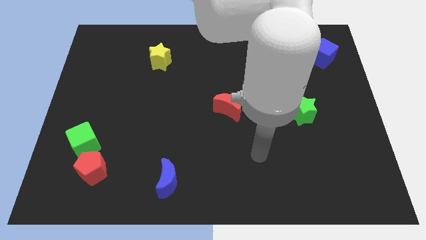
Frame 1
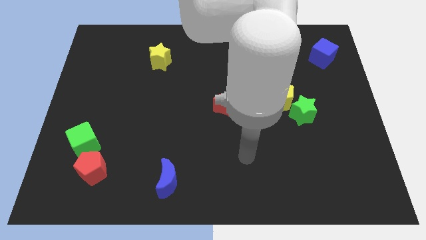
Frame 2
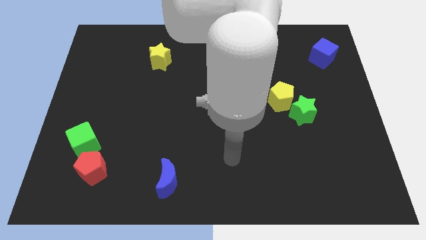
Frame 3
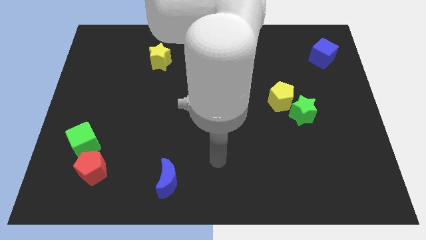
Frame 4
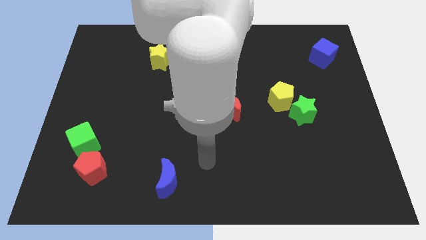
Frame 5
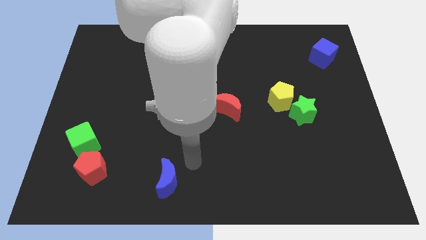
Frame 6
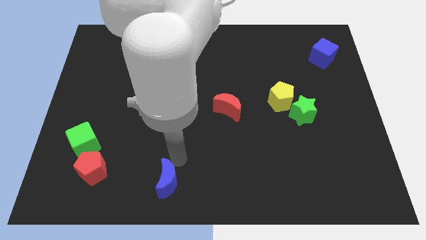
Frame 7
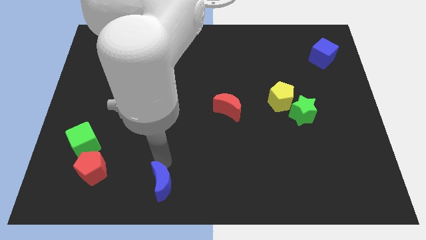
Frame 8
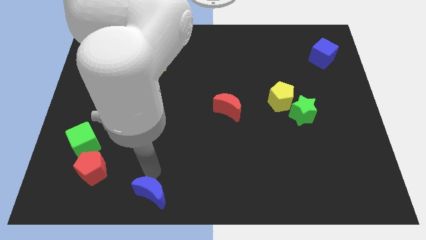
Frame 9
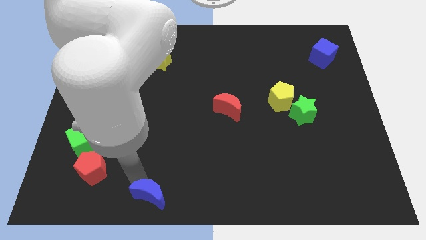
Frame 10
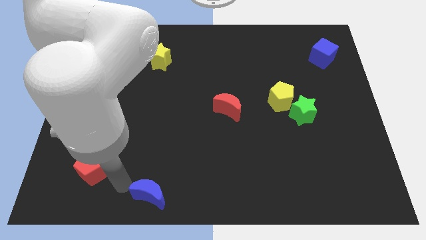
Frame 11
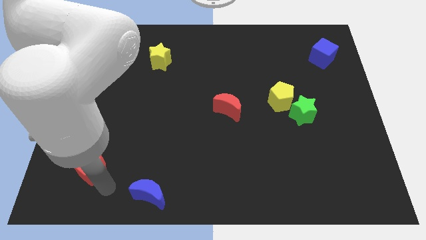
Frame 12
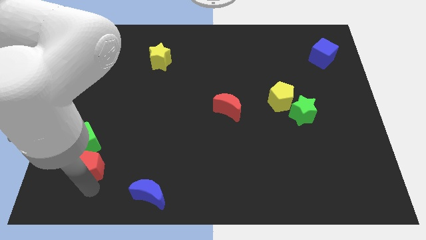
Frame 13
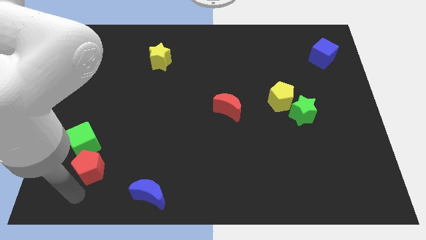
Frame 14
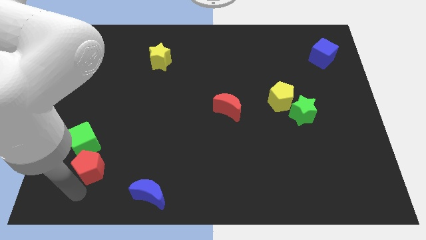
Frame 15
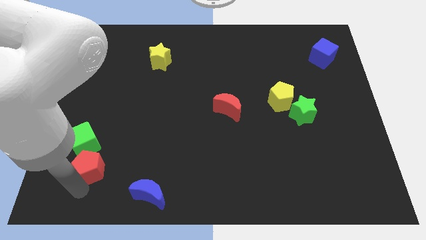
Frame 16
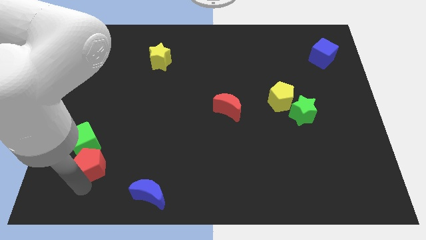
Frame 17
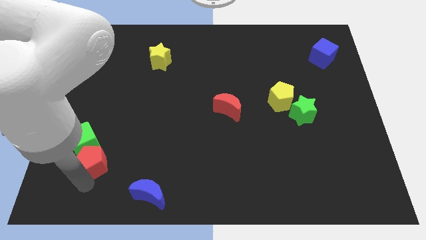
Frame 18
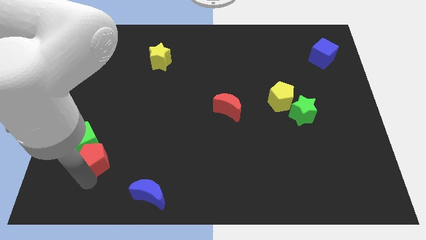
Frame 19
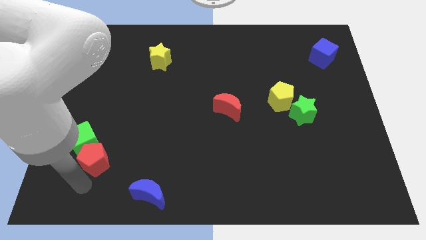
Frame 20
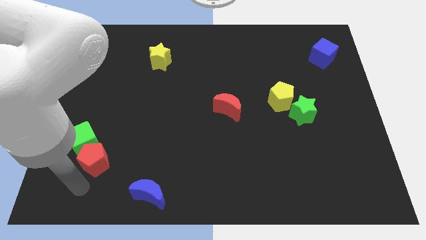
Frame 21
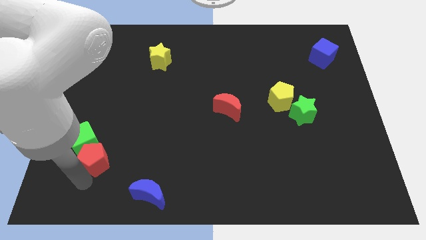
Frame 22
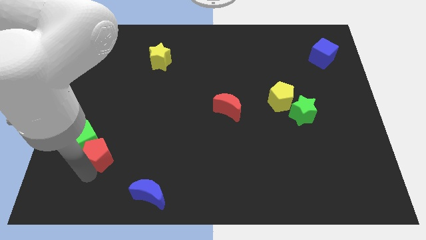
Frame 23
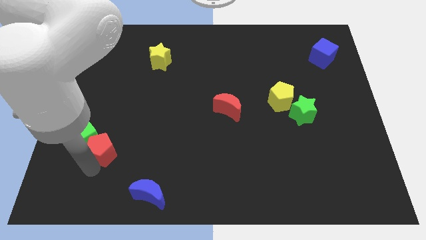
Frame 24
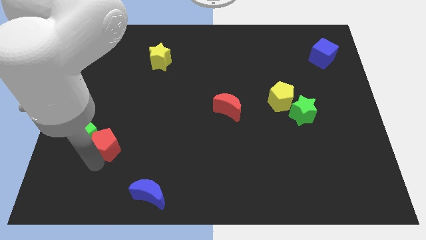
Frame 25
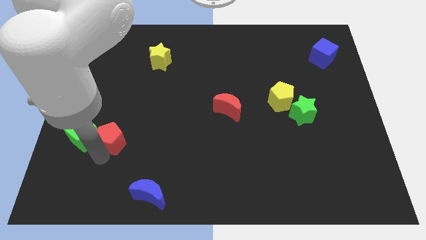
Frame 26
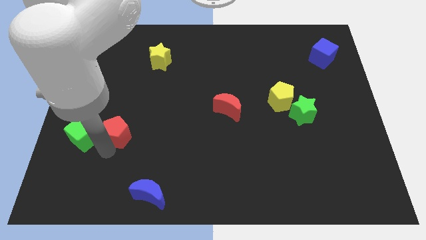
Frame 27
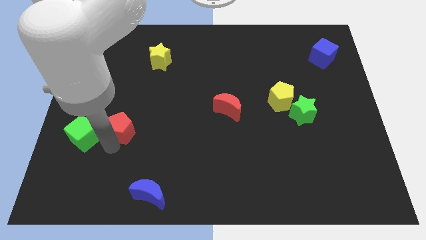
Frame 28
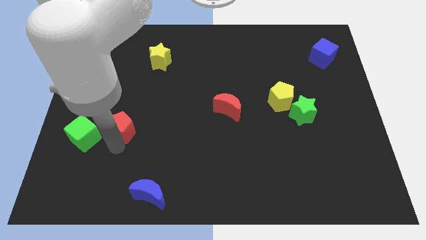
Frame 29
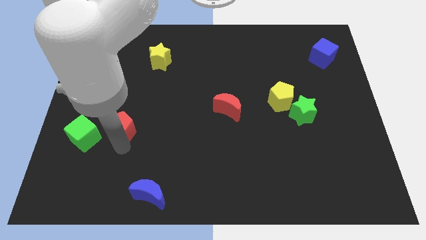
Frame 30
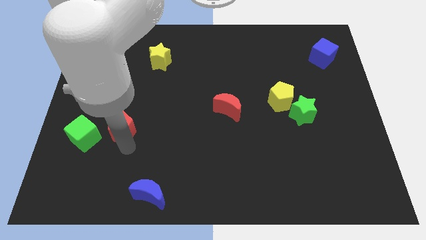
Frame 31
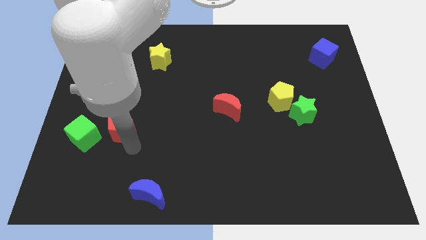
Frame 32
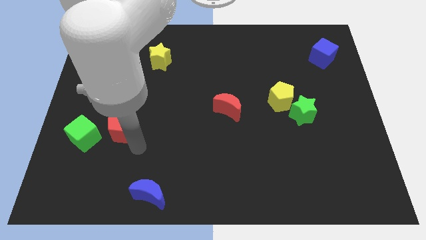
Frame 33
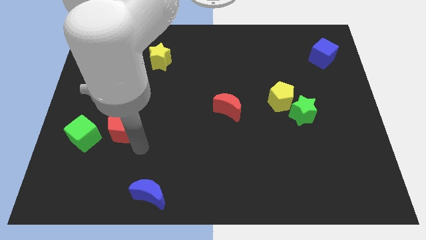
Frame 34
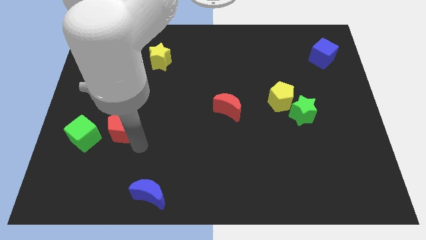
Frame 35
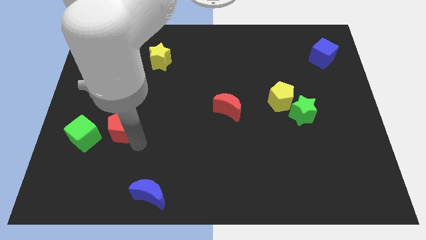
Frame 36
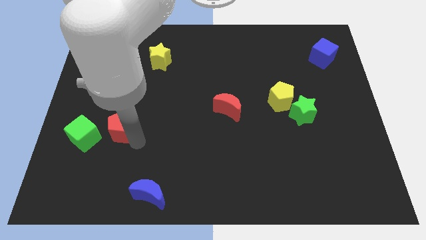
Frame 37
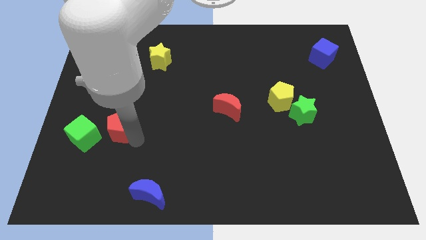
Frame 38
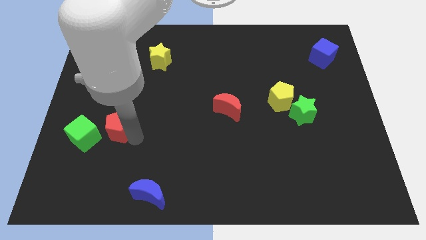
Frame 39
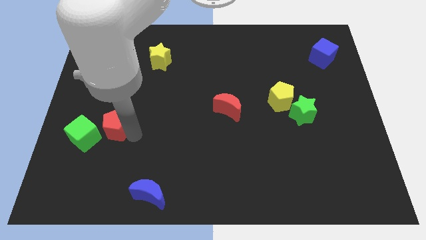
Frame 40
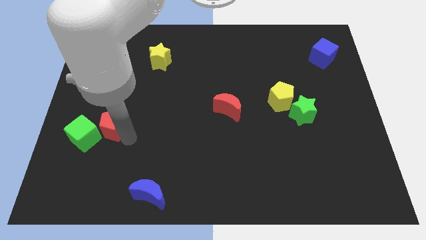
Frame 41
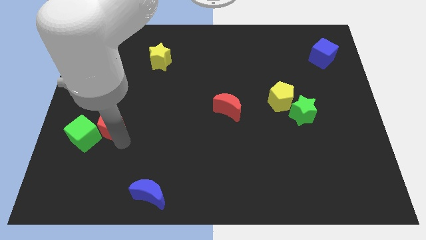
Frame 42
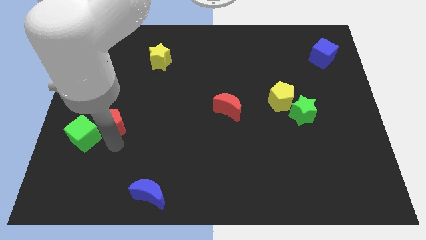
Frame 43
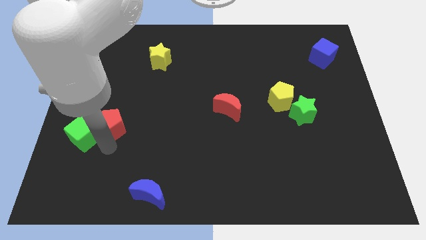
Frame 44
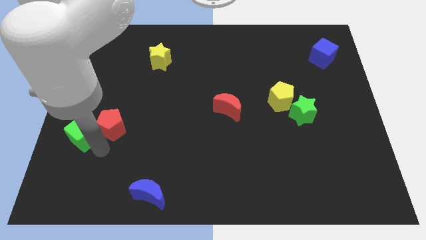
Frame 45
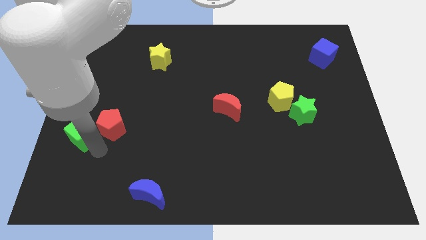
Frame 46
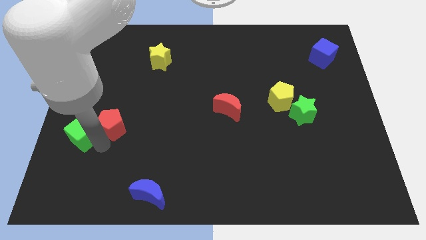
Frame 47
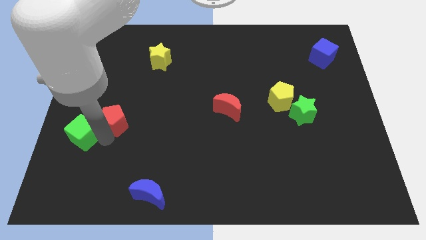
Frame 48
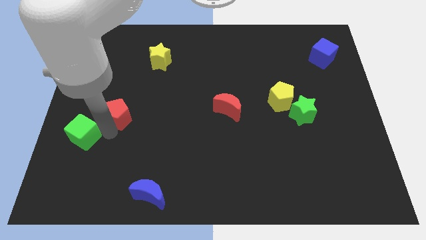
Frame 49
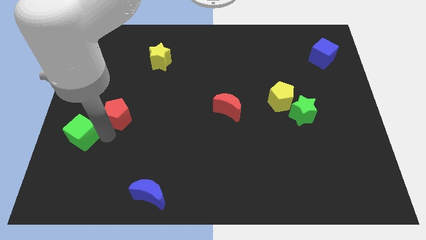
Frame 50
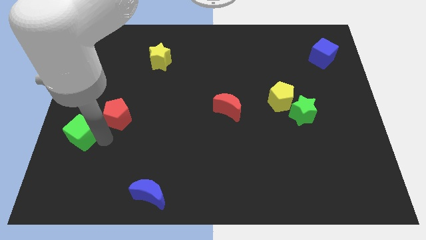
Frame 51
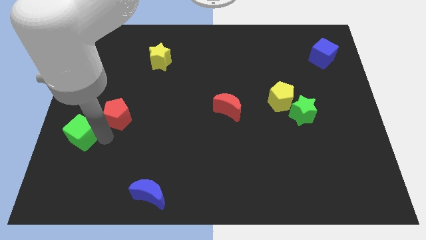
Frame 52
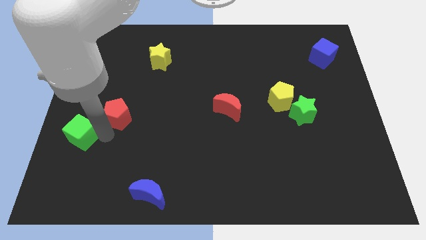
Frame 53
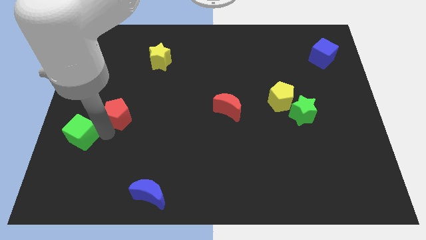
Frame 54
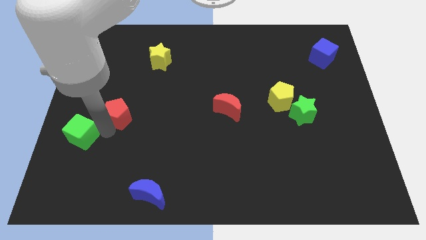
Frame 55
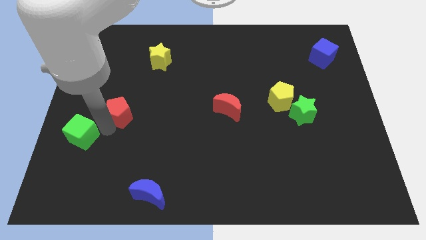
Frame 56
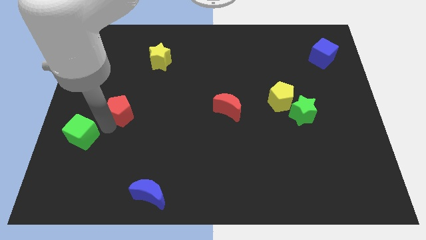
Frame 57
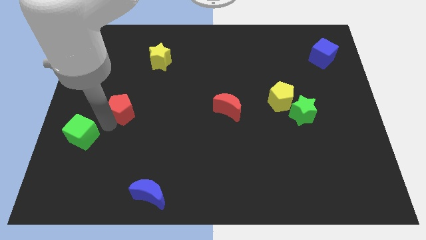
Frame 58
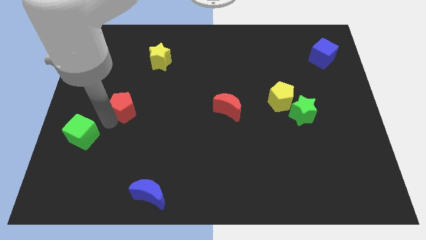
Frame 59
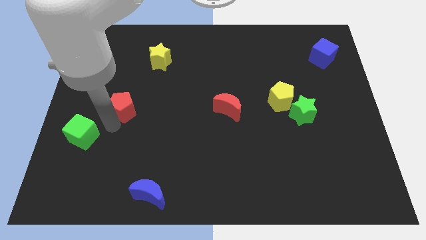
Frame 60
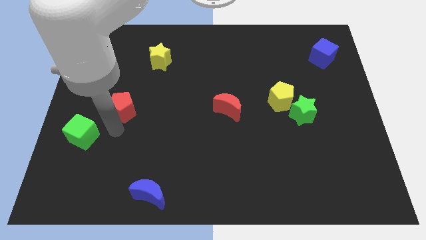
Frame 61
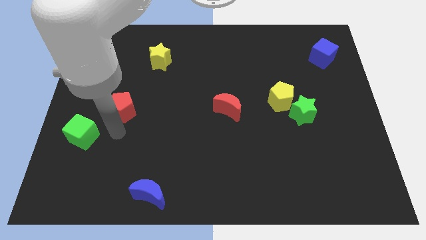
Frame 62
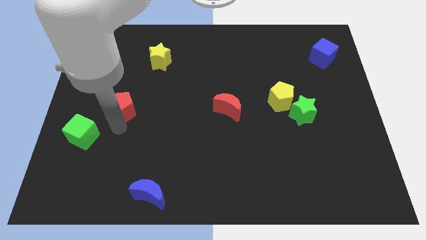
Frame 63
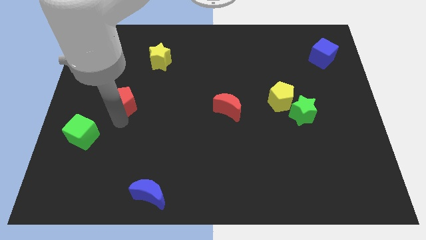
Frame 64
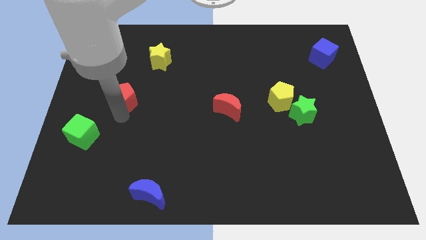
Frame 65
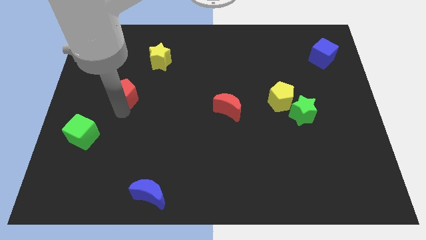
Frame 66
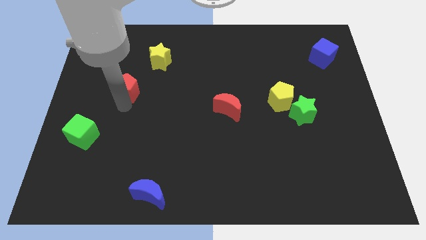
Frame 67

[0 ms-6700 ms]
slide the red pentagon upwards

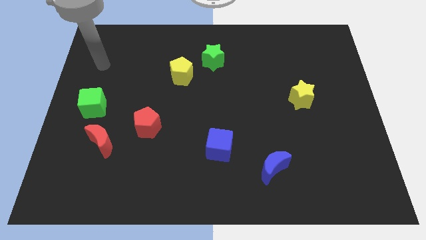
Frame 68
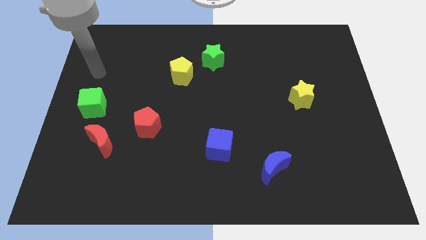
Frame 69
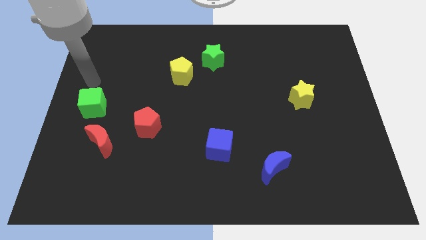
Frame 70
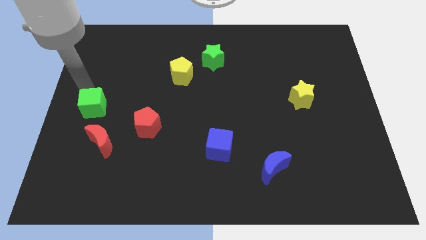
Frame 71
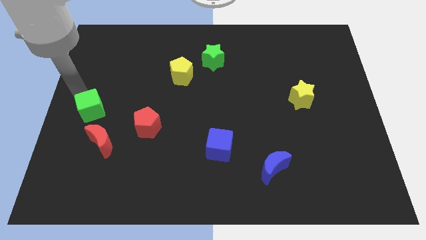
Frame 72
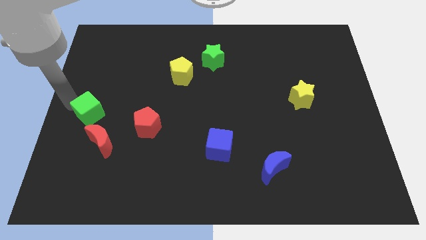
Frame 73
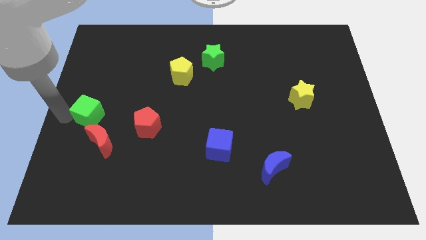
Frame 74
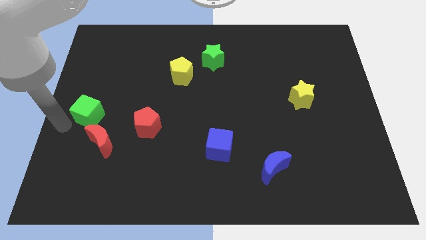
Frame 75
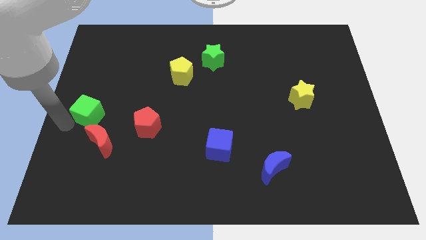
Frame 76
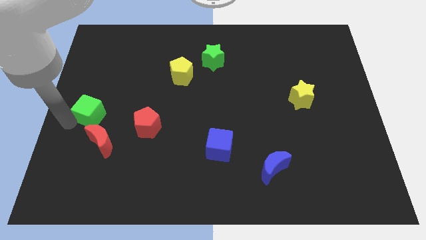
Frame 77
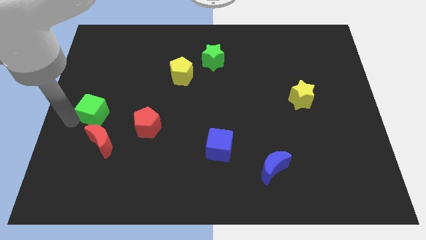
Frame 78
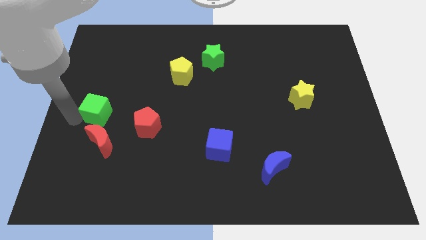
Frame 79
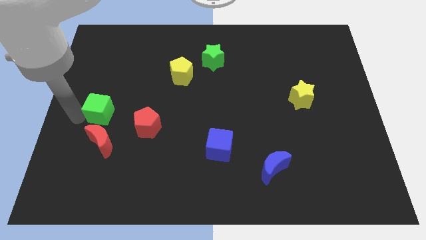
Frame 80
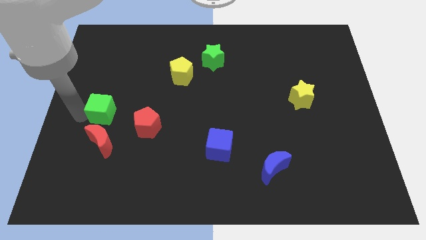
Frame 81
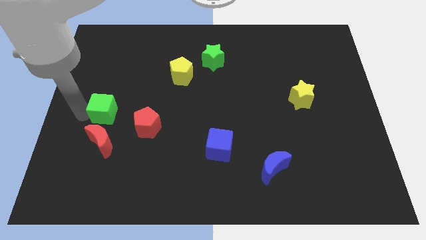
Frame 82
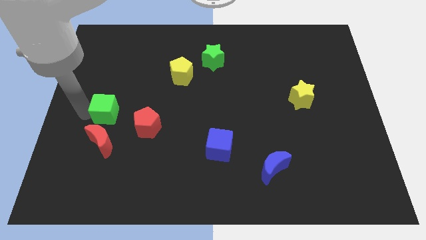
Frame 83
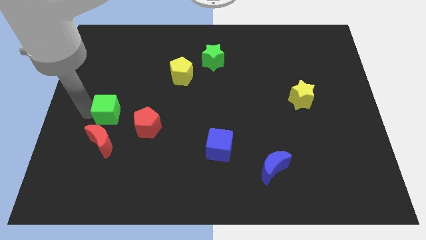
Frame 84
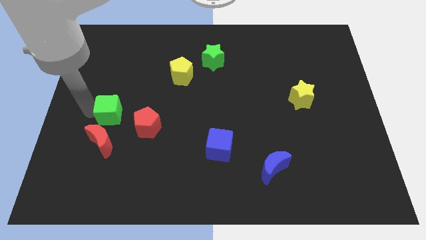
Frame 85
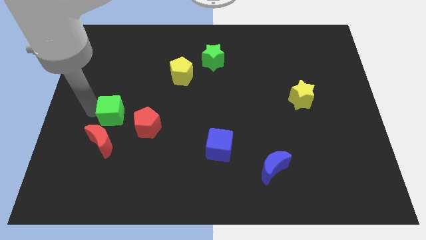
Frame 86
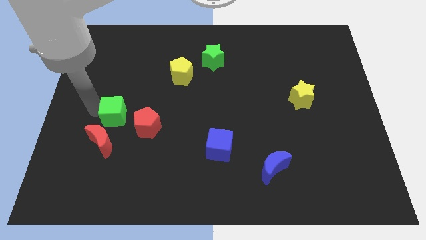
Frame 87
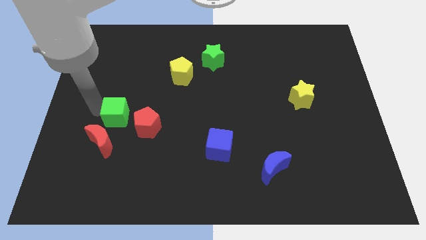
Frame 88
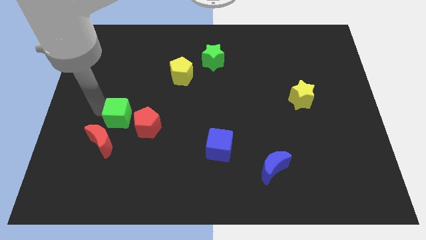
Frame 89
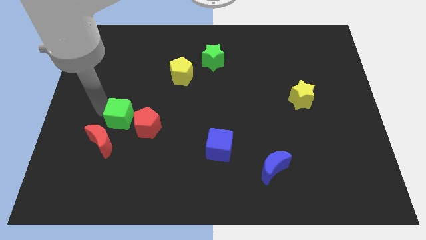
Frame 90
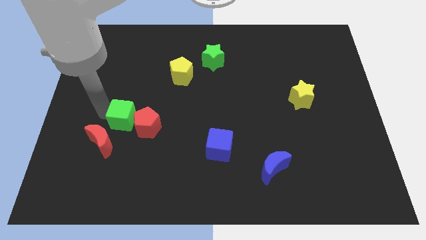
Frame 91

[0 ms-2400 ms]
push the green cube a little bit right
